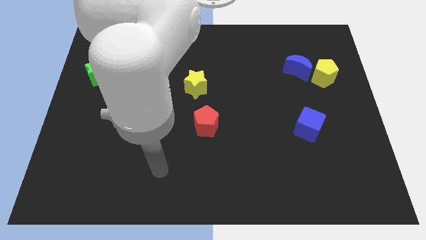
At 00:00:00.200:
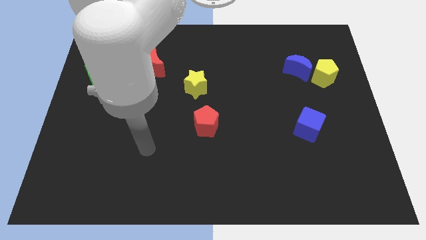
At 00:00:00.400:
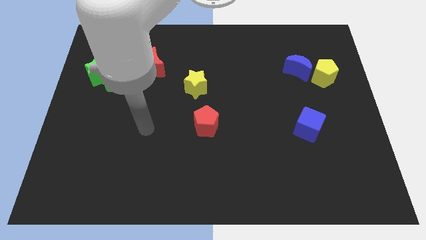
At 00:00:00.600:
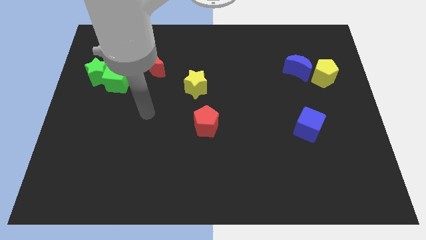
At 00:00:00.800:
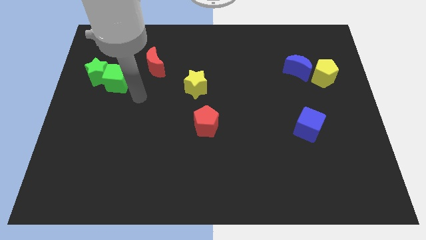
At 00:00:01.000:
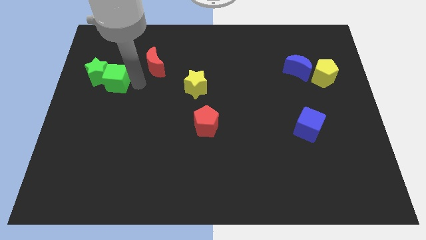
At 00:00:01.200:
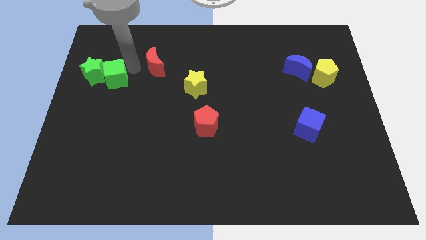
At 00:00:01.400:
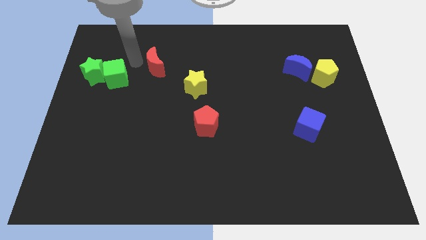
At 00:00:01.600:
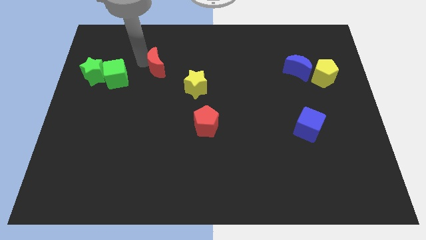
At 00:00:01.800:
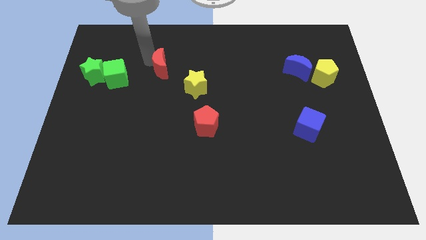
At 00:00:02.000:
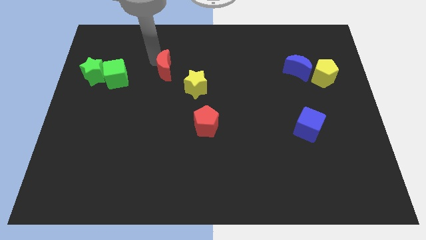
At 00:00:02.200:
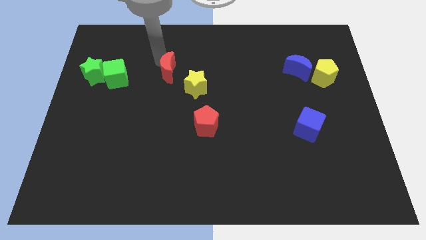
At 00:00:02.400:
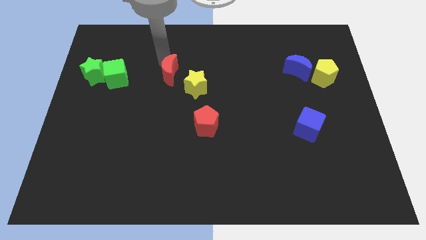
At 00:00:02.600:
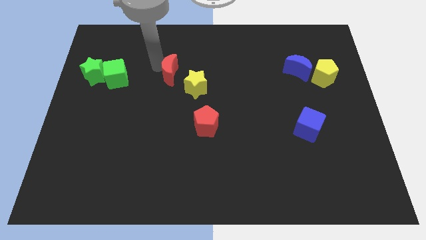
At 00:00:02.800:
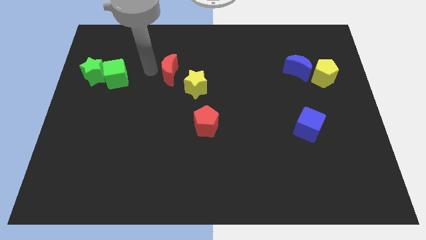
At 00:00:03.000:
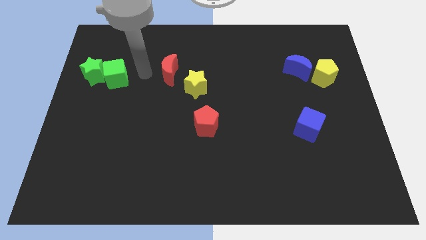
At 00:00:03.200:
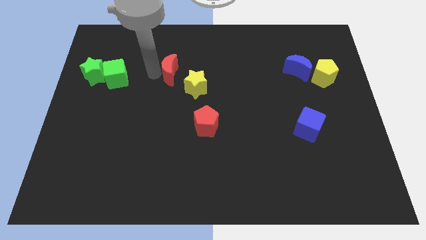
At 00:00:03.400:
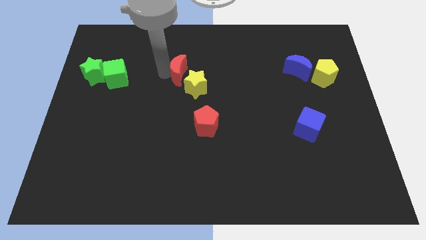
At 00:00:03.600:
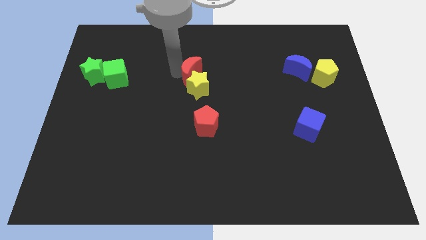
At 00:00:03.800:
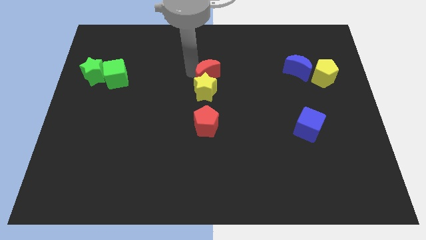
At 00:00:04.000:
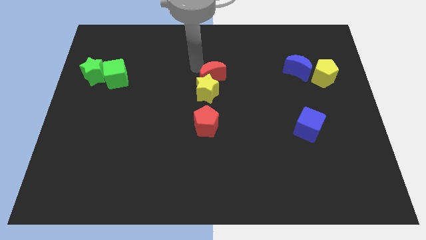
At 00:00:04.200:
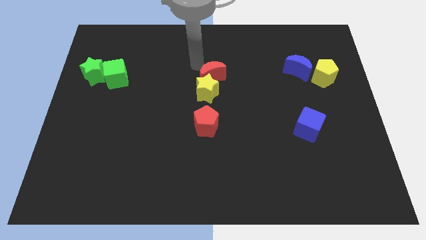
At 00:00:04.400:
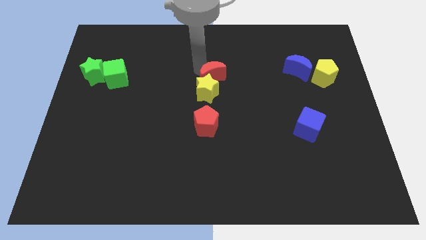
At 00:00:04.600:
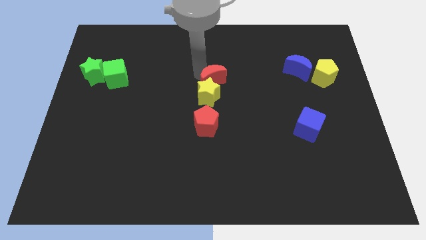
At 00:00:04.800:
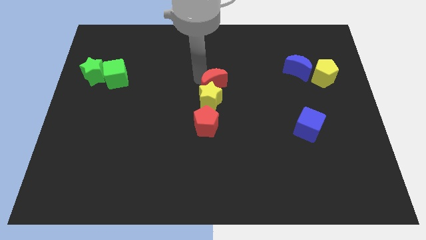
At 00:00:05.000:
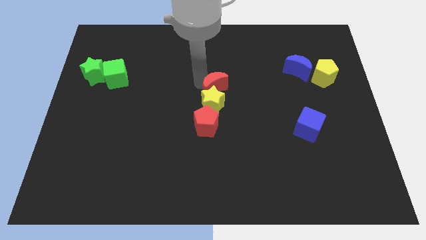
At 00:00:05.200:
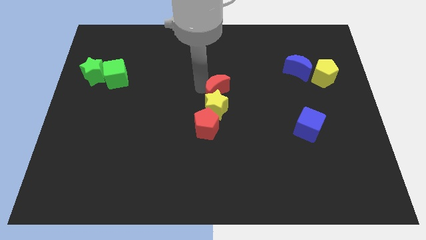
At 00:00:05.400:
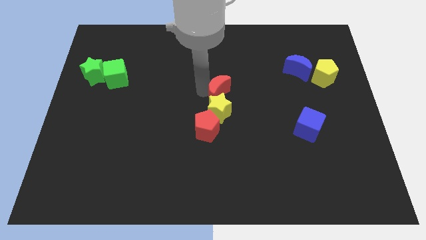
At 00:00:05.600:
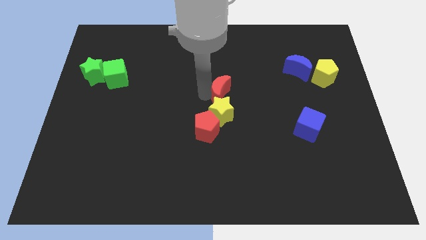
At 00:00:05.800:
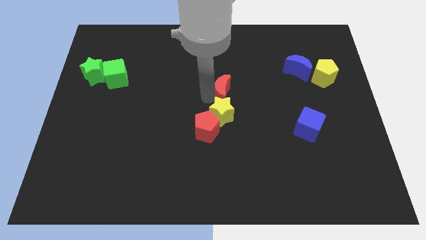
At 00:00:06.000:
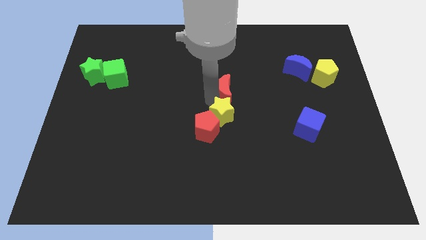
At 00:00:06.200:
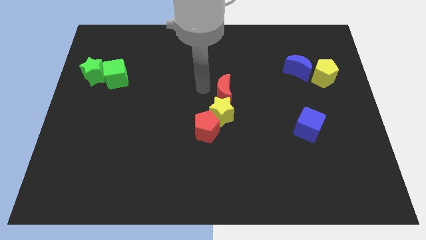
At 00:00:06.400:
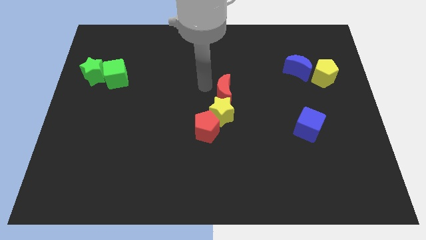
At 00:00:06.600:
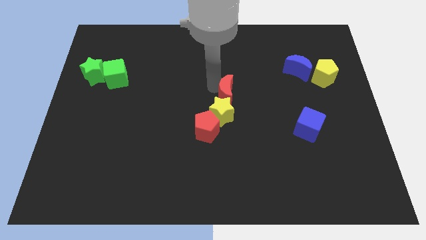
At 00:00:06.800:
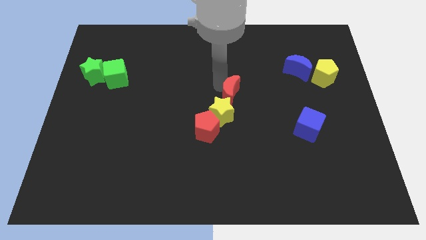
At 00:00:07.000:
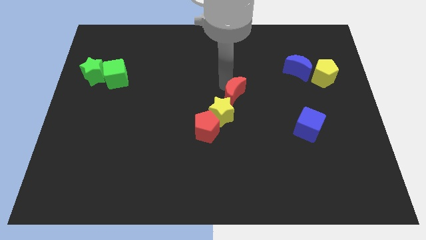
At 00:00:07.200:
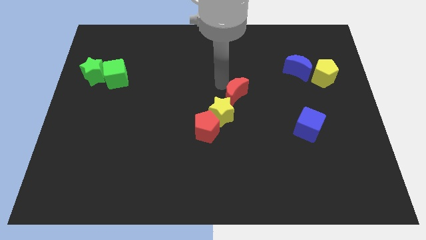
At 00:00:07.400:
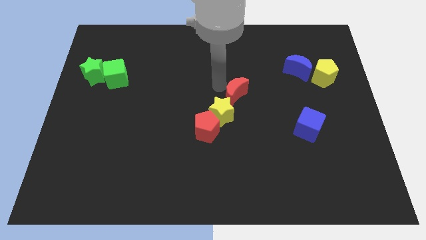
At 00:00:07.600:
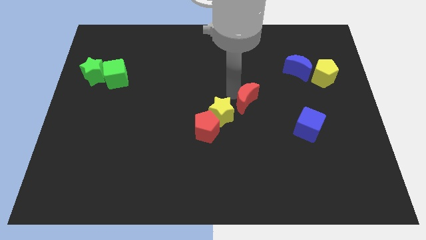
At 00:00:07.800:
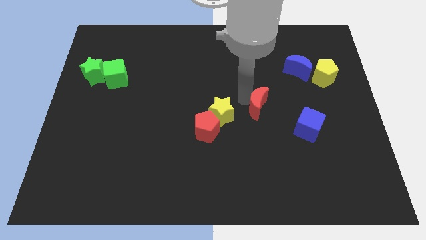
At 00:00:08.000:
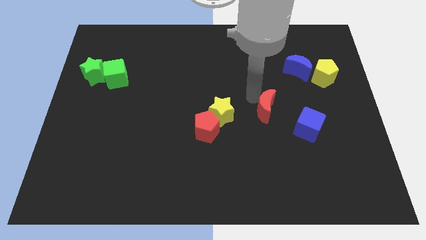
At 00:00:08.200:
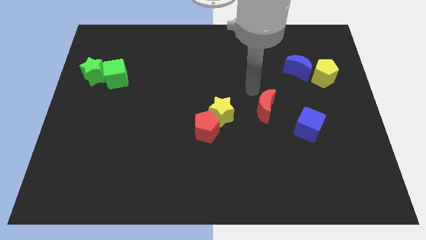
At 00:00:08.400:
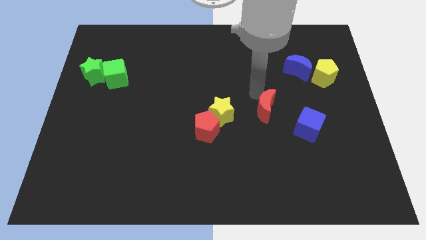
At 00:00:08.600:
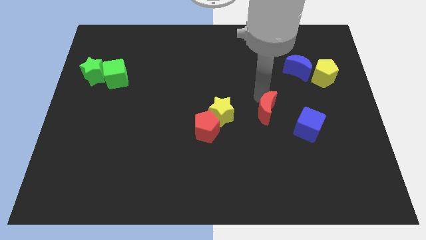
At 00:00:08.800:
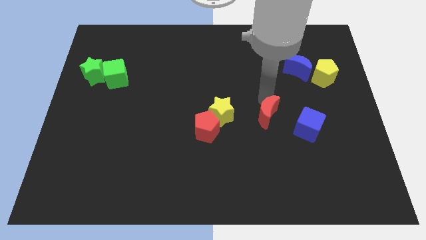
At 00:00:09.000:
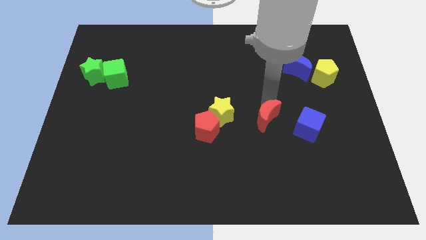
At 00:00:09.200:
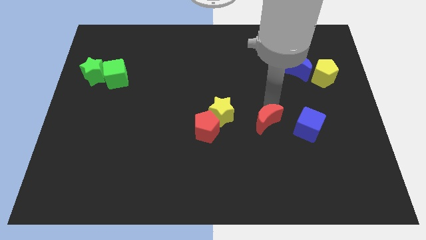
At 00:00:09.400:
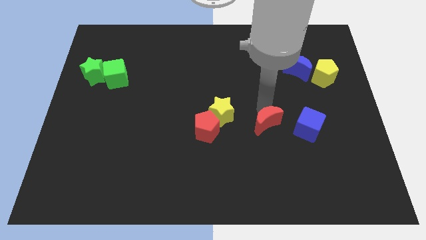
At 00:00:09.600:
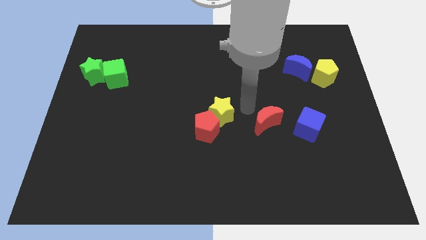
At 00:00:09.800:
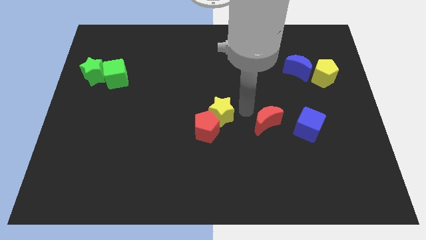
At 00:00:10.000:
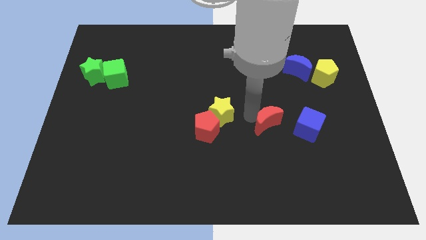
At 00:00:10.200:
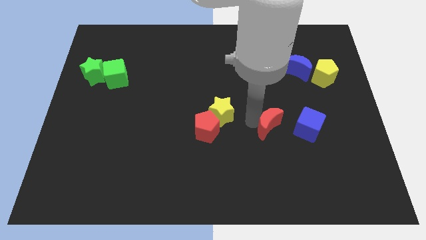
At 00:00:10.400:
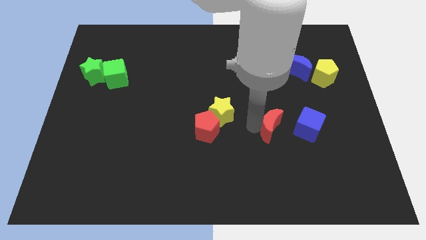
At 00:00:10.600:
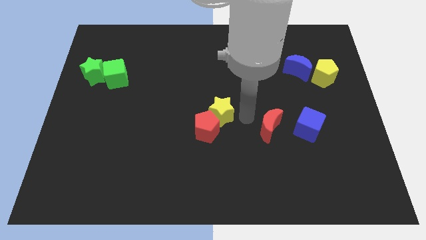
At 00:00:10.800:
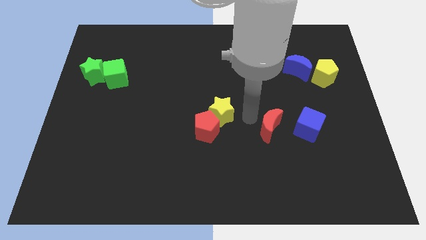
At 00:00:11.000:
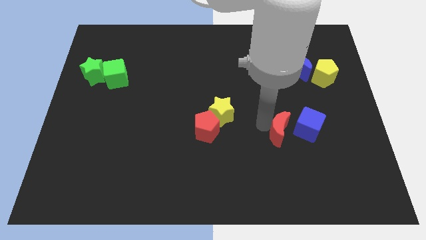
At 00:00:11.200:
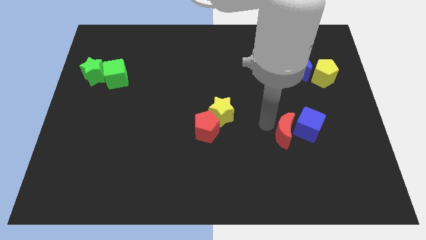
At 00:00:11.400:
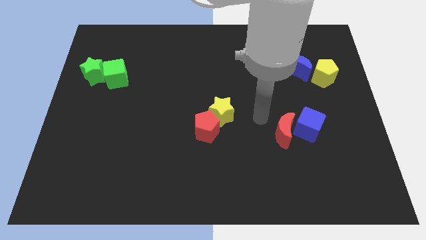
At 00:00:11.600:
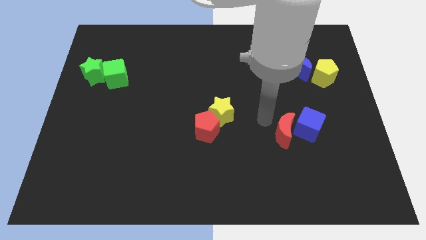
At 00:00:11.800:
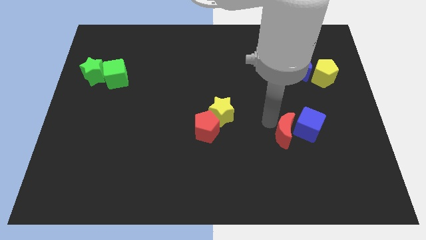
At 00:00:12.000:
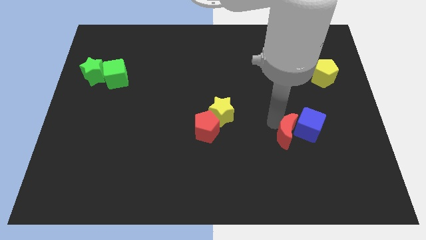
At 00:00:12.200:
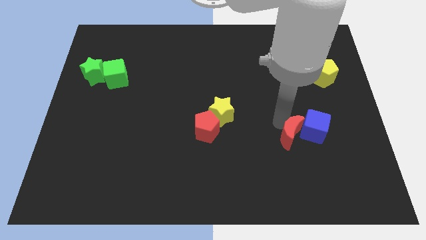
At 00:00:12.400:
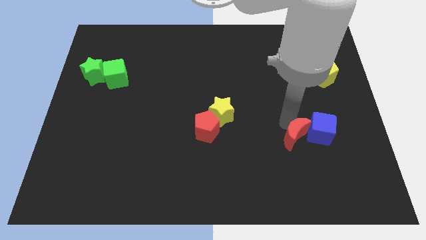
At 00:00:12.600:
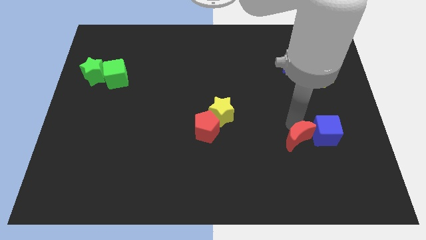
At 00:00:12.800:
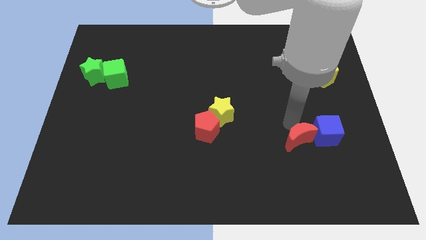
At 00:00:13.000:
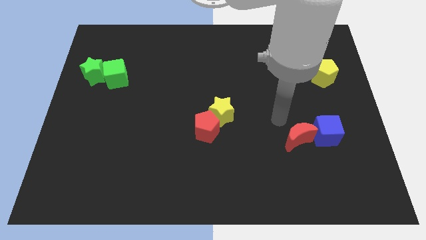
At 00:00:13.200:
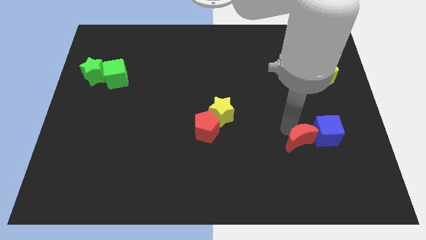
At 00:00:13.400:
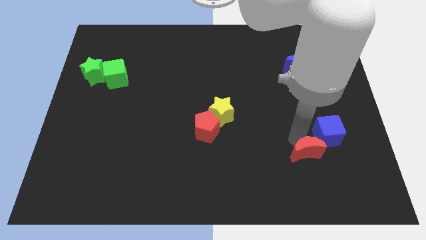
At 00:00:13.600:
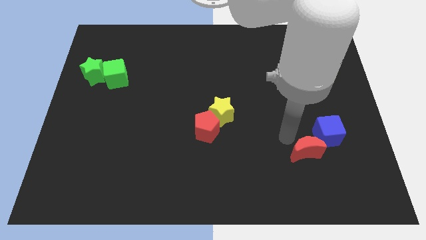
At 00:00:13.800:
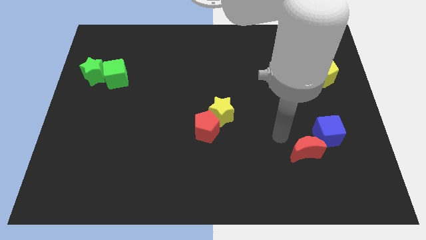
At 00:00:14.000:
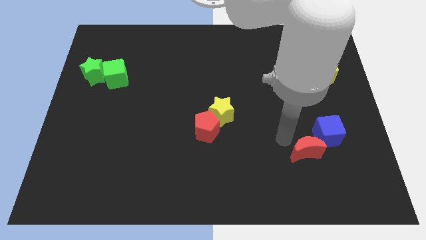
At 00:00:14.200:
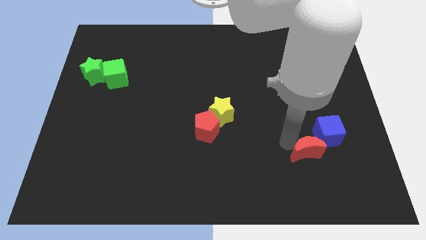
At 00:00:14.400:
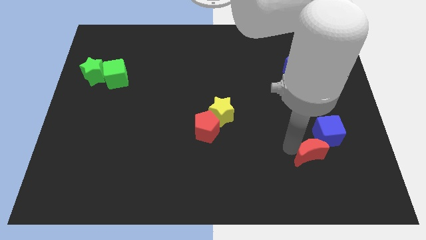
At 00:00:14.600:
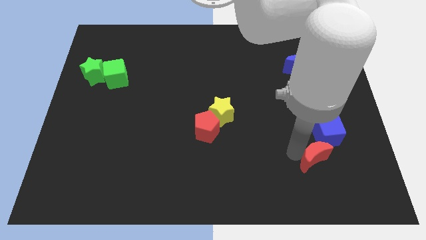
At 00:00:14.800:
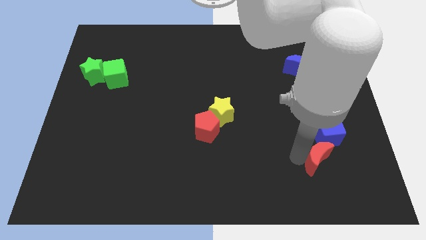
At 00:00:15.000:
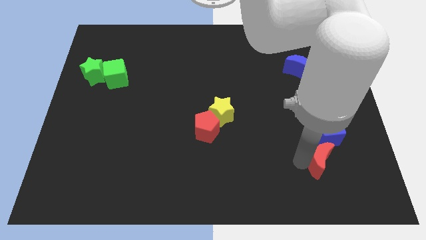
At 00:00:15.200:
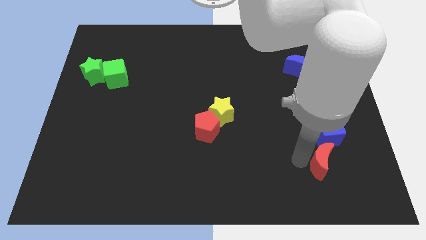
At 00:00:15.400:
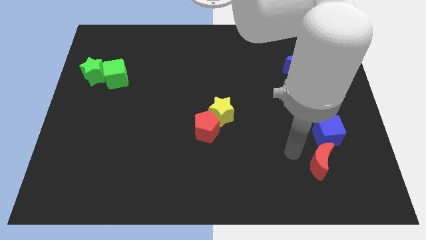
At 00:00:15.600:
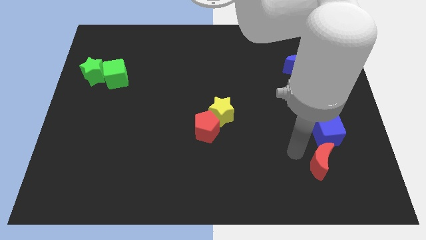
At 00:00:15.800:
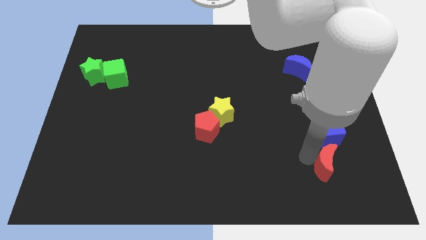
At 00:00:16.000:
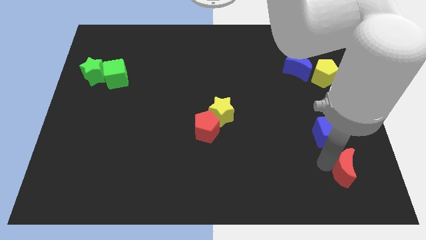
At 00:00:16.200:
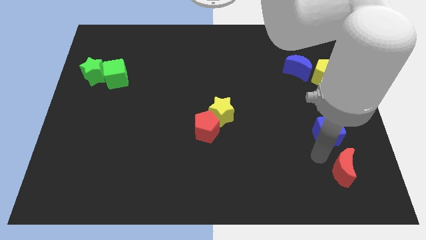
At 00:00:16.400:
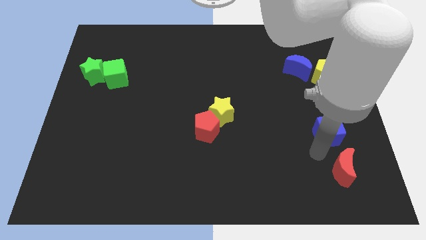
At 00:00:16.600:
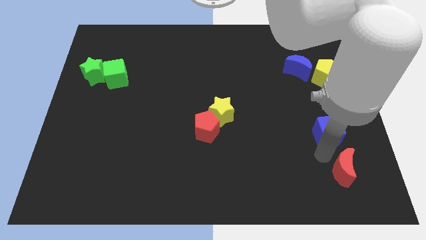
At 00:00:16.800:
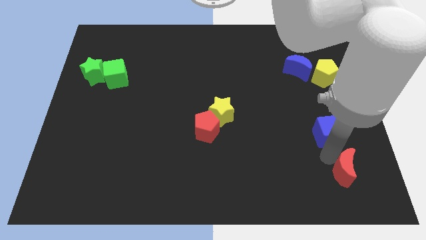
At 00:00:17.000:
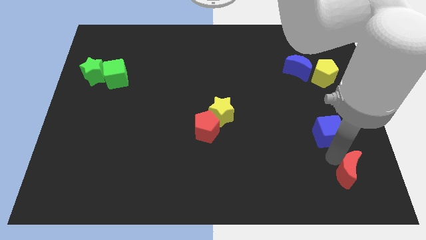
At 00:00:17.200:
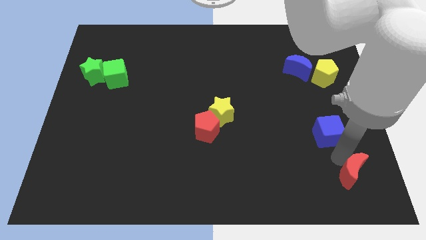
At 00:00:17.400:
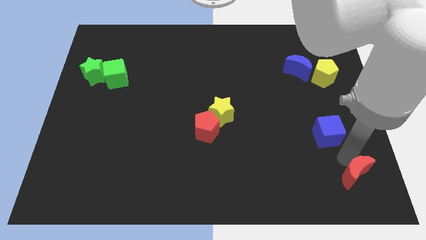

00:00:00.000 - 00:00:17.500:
move the red moon to the lower right corner
